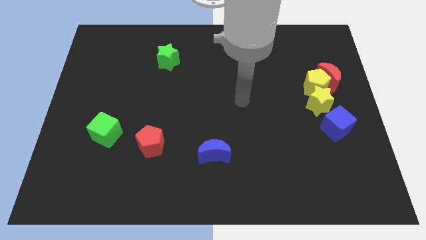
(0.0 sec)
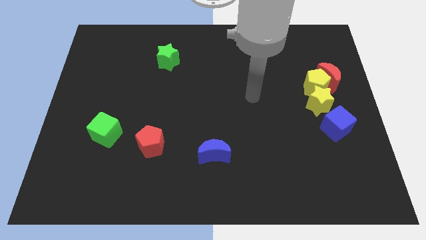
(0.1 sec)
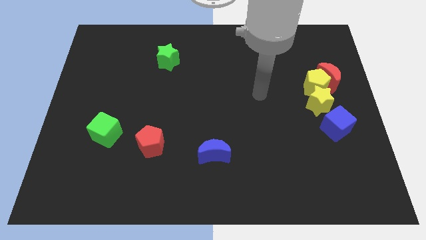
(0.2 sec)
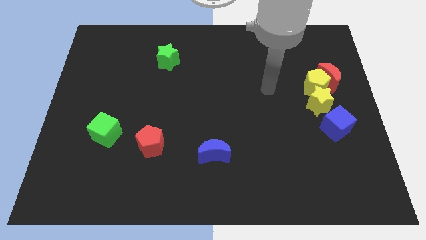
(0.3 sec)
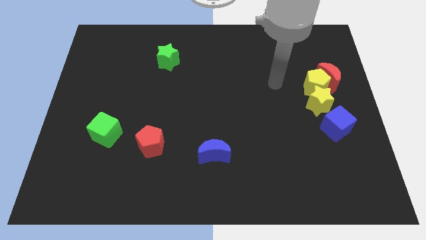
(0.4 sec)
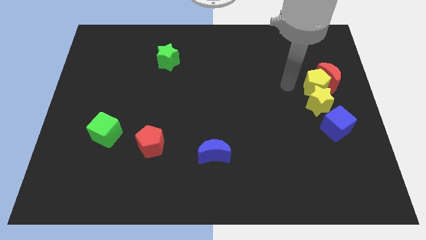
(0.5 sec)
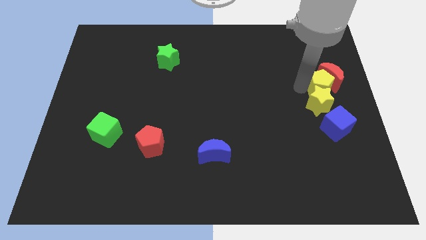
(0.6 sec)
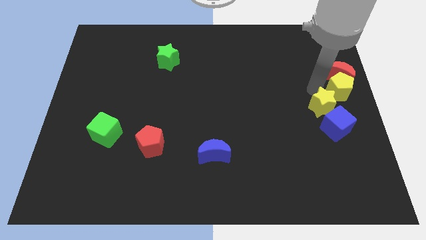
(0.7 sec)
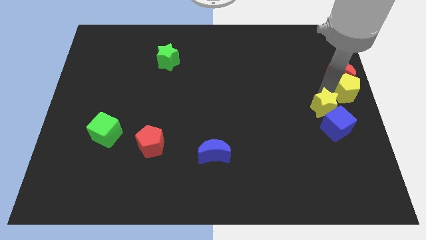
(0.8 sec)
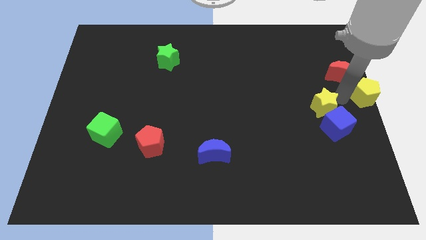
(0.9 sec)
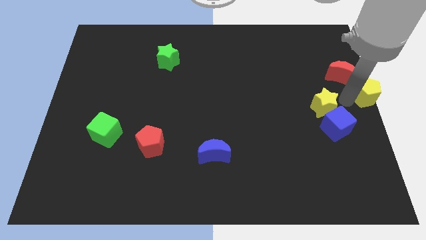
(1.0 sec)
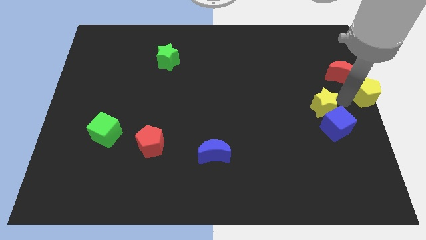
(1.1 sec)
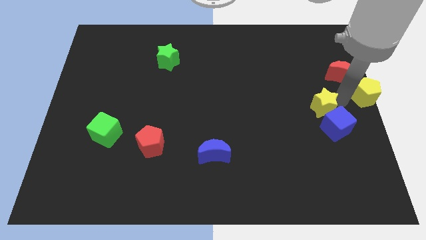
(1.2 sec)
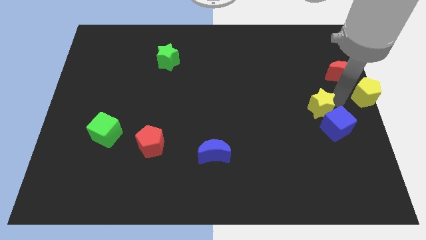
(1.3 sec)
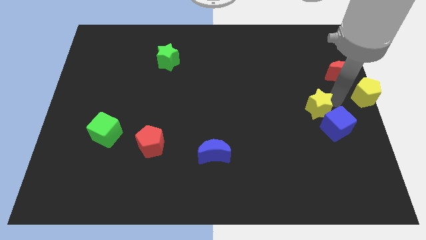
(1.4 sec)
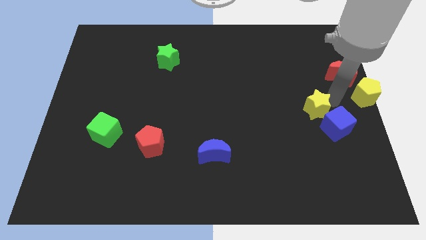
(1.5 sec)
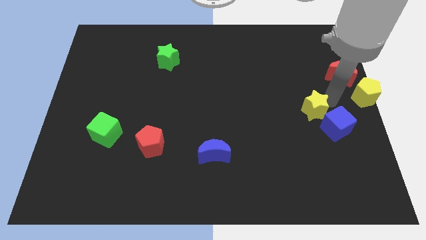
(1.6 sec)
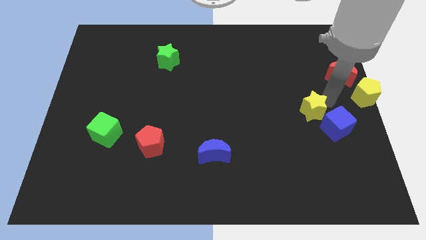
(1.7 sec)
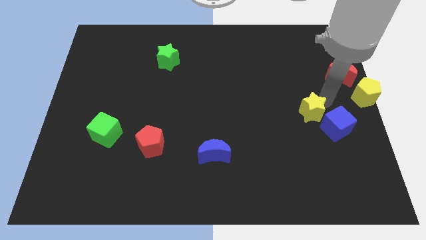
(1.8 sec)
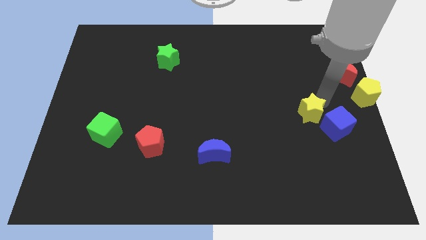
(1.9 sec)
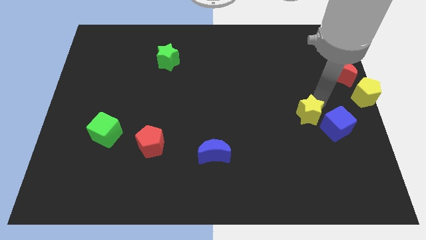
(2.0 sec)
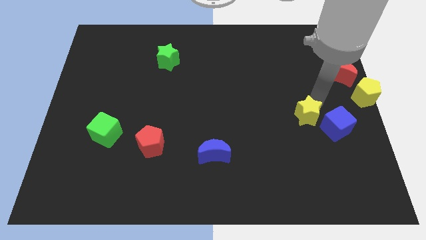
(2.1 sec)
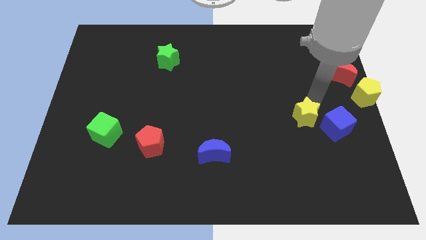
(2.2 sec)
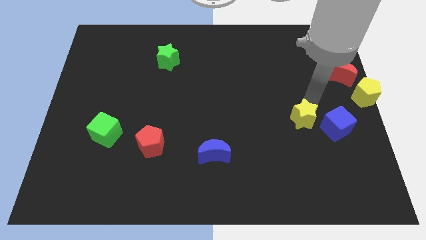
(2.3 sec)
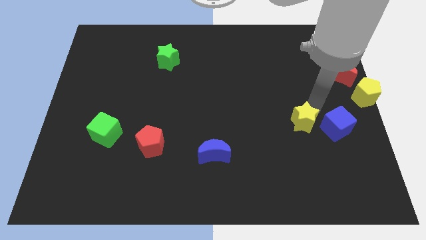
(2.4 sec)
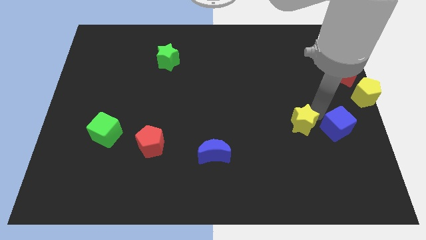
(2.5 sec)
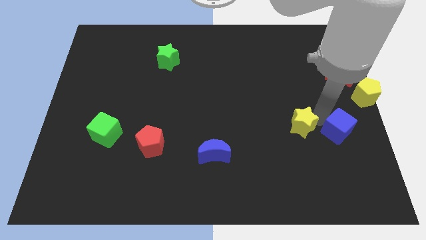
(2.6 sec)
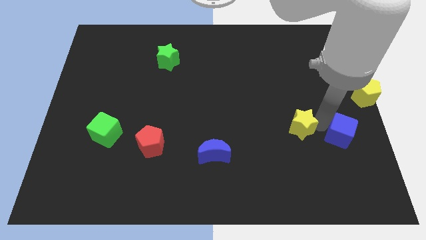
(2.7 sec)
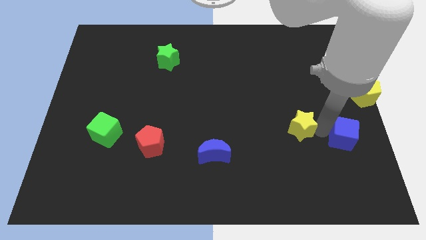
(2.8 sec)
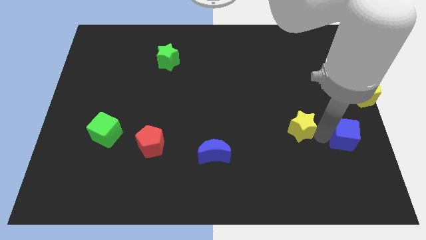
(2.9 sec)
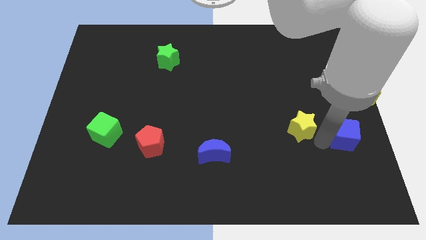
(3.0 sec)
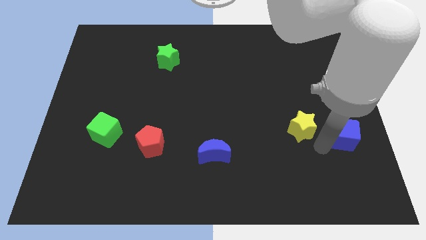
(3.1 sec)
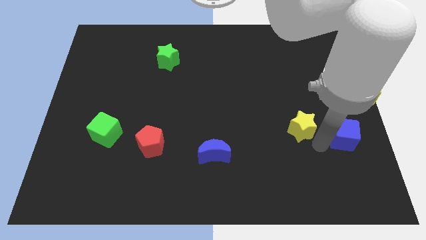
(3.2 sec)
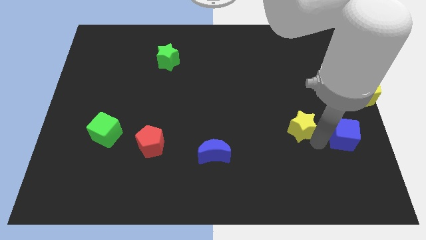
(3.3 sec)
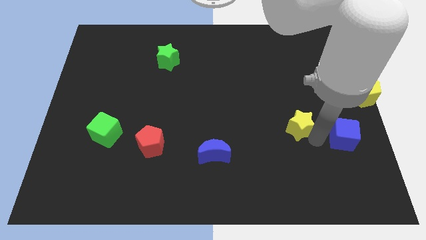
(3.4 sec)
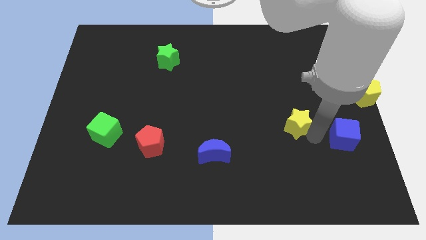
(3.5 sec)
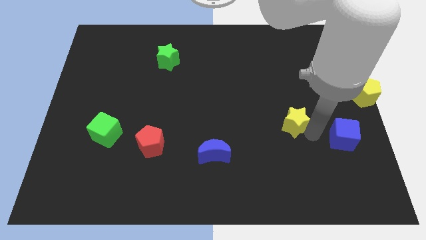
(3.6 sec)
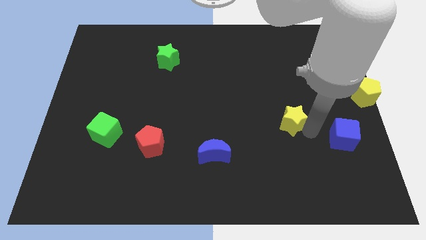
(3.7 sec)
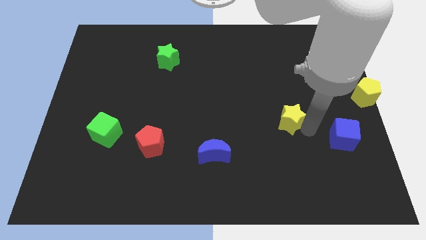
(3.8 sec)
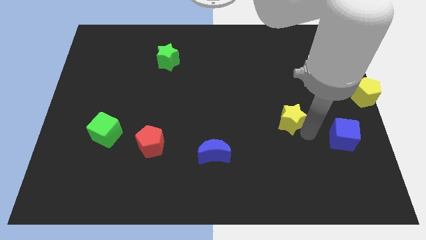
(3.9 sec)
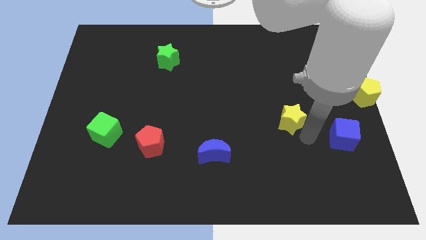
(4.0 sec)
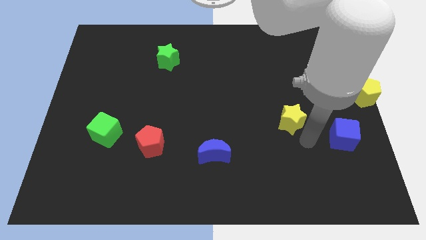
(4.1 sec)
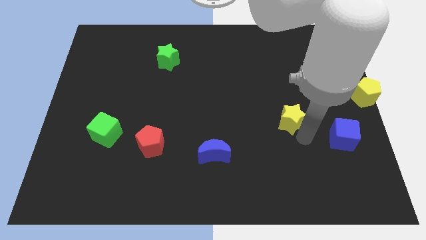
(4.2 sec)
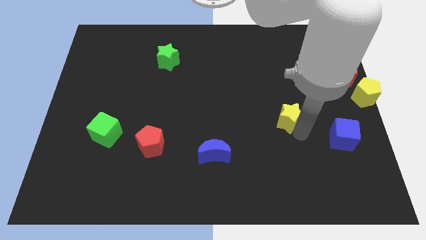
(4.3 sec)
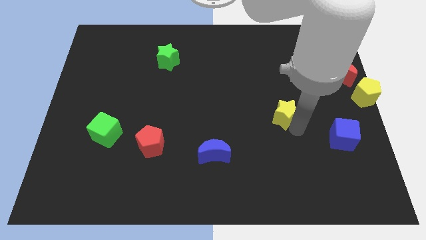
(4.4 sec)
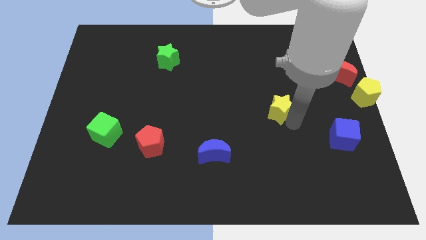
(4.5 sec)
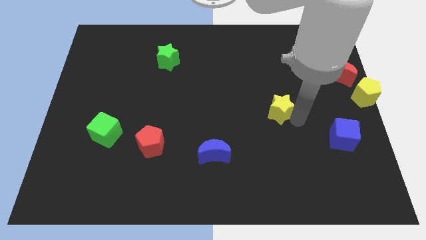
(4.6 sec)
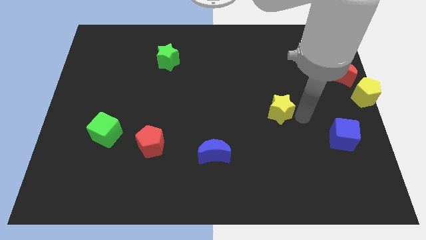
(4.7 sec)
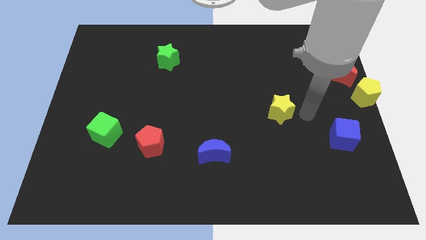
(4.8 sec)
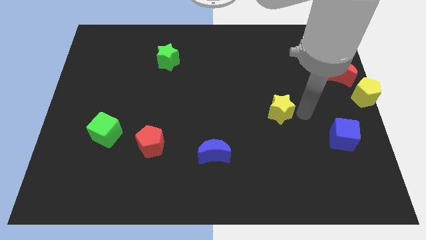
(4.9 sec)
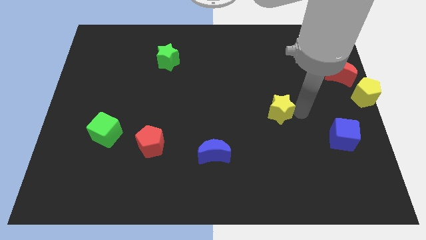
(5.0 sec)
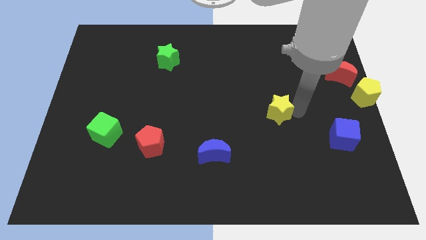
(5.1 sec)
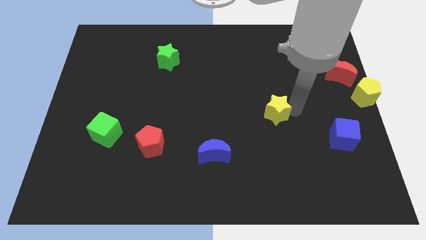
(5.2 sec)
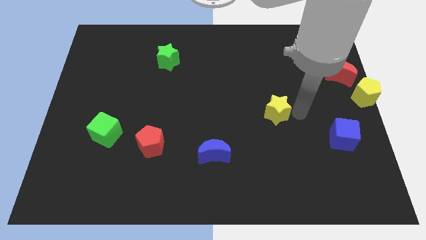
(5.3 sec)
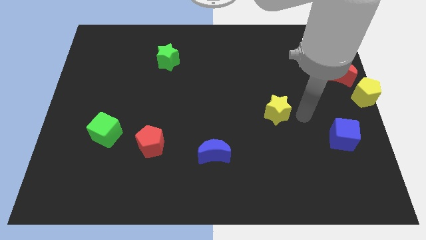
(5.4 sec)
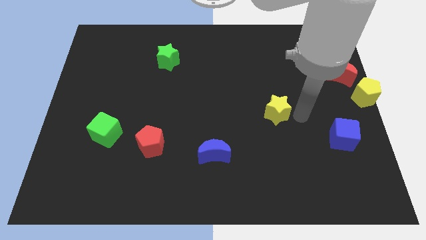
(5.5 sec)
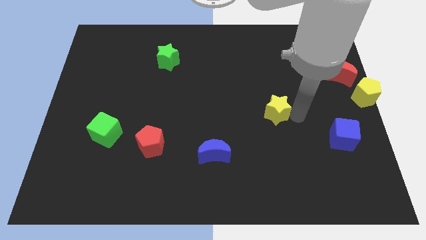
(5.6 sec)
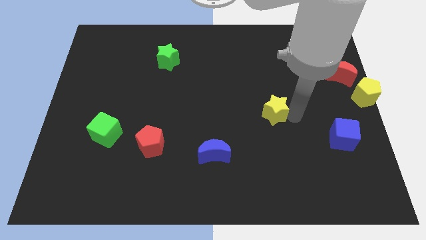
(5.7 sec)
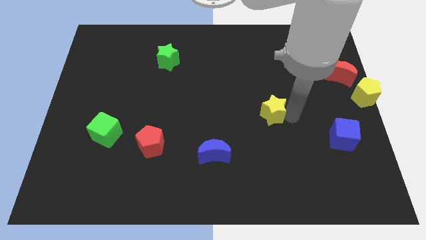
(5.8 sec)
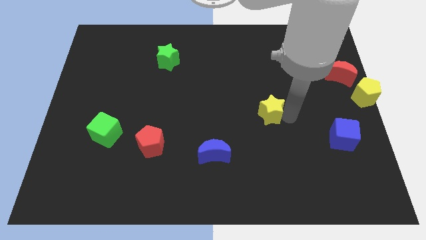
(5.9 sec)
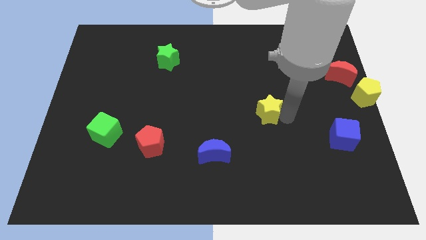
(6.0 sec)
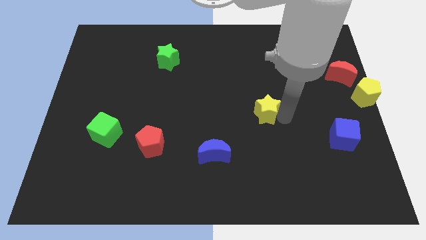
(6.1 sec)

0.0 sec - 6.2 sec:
slide the yellow star to the middle
